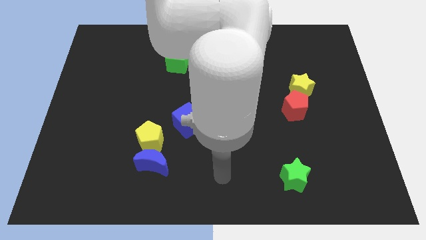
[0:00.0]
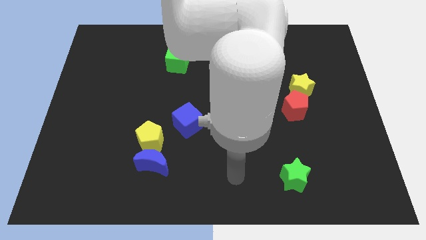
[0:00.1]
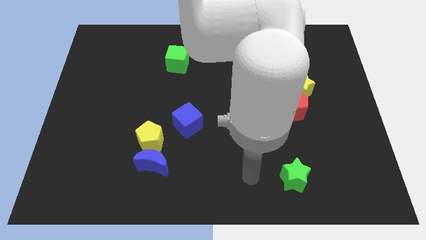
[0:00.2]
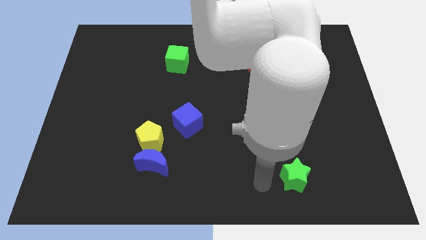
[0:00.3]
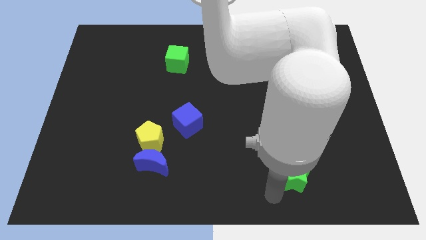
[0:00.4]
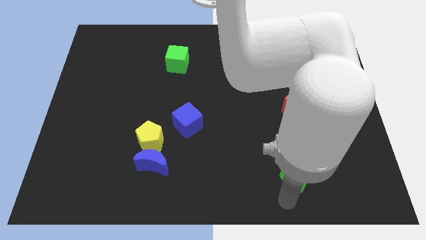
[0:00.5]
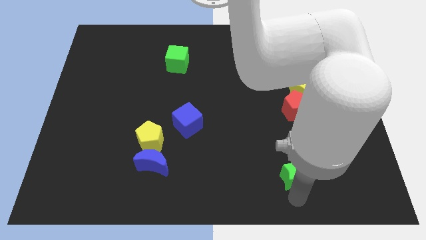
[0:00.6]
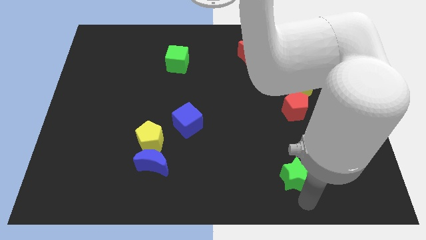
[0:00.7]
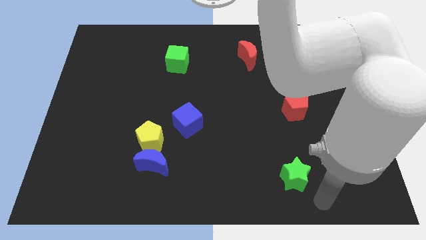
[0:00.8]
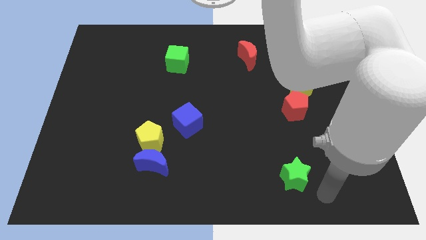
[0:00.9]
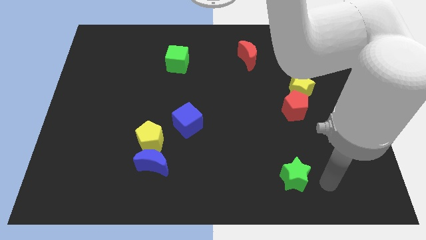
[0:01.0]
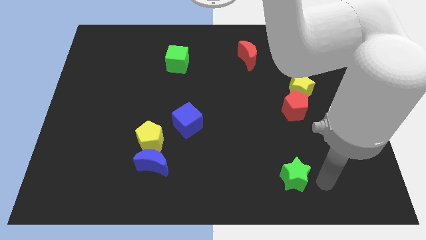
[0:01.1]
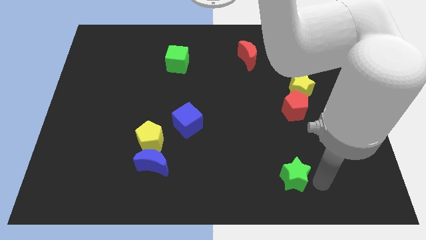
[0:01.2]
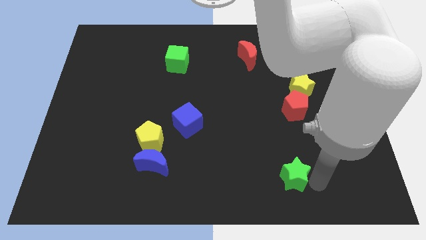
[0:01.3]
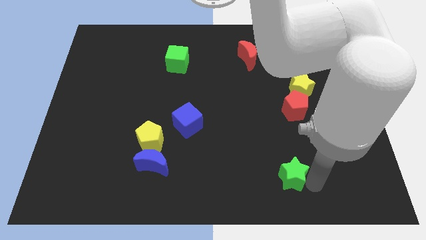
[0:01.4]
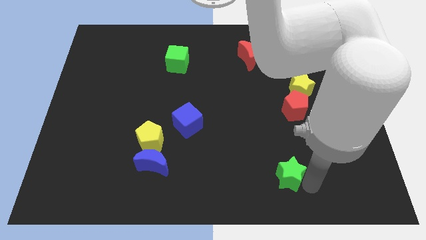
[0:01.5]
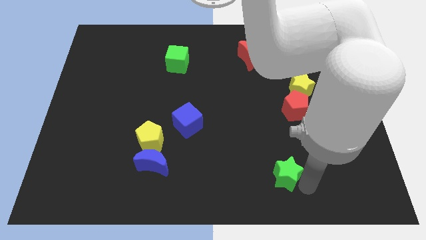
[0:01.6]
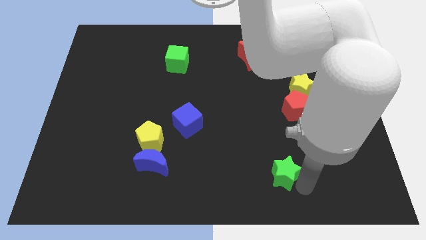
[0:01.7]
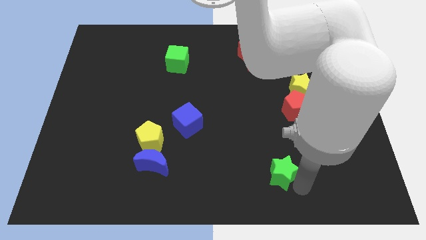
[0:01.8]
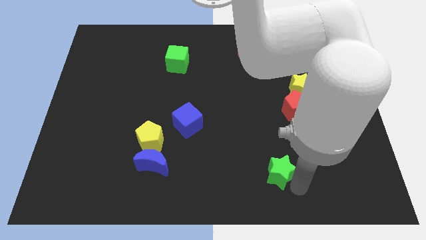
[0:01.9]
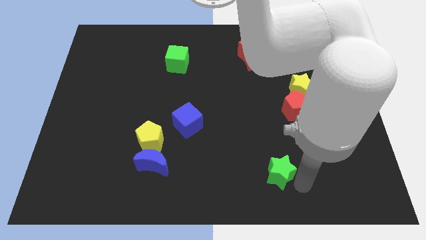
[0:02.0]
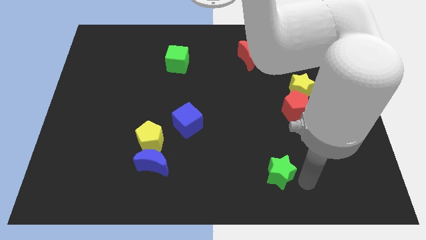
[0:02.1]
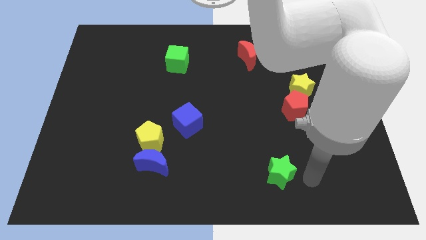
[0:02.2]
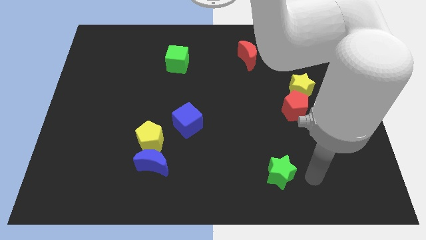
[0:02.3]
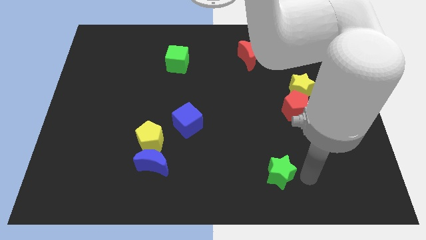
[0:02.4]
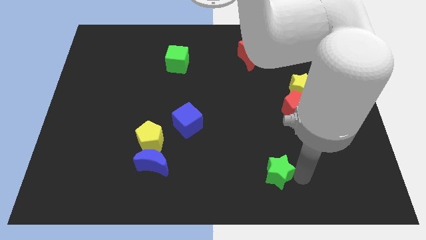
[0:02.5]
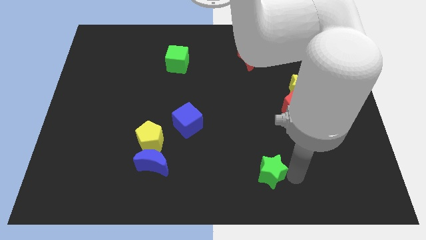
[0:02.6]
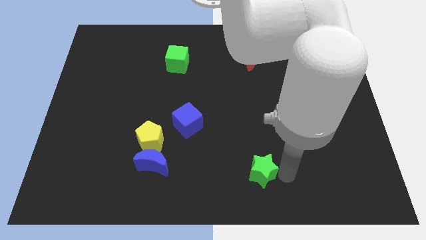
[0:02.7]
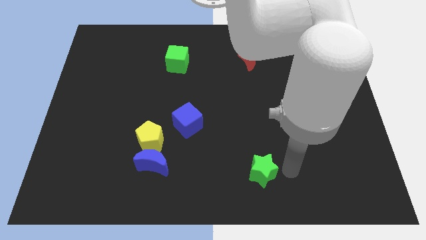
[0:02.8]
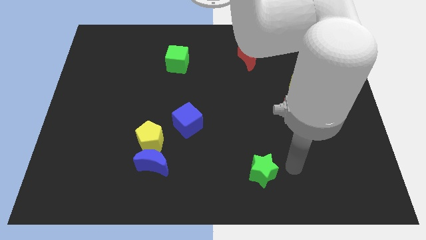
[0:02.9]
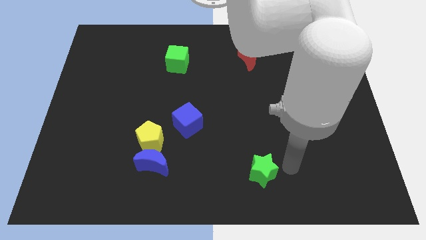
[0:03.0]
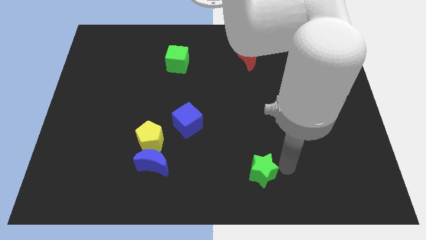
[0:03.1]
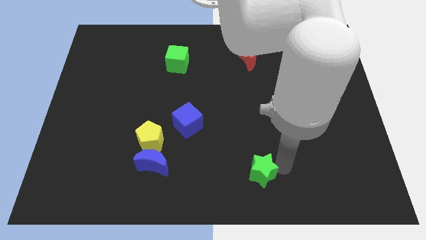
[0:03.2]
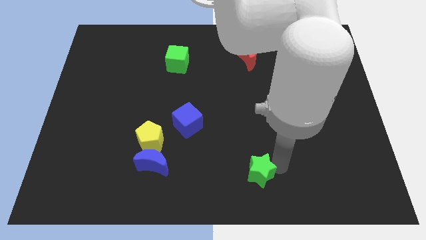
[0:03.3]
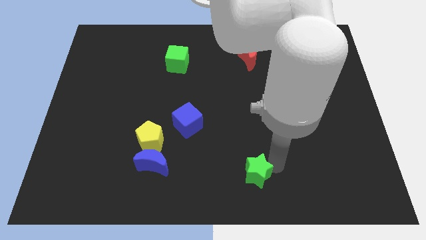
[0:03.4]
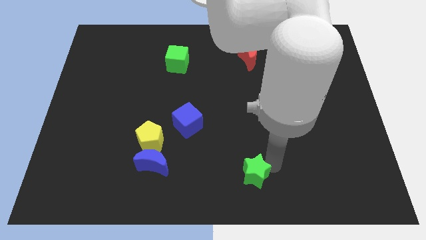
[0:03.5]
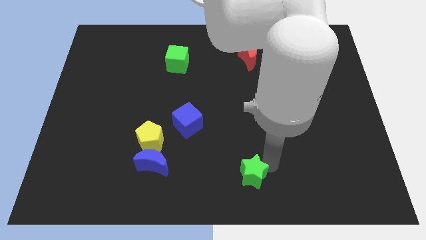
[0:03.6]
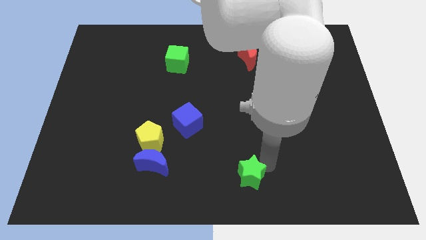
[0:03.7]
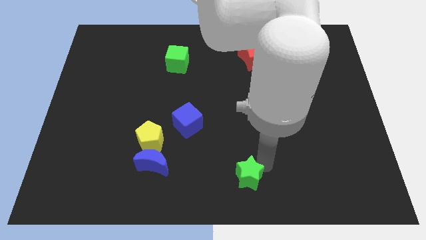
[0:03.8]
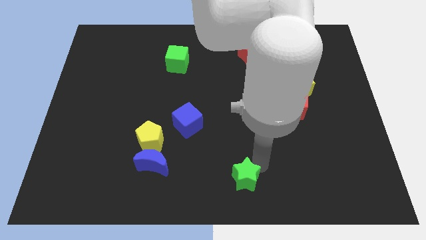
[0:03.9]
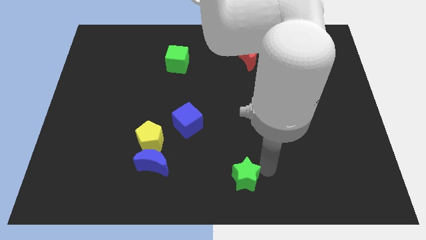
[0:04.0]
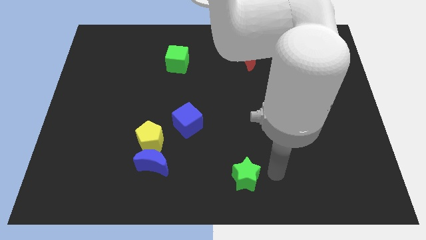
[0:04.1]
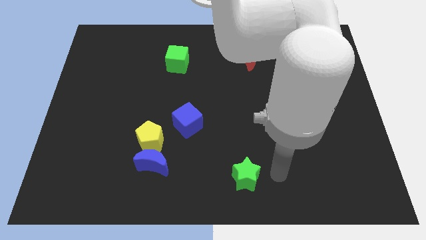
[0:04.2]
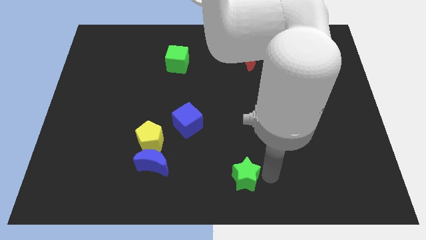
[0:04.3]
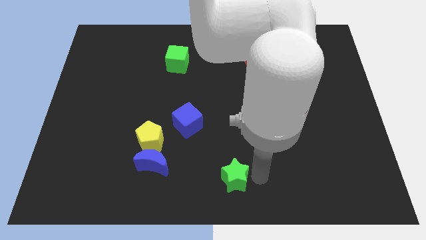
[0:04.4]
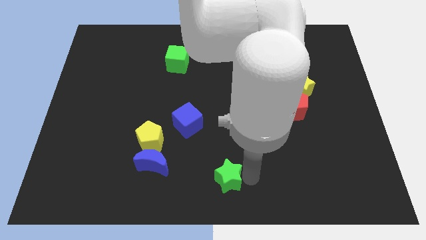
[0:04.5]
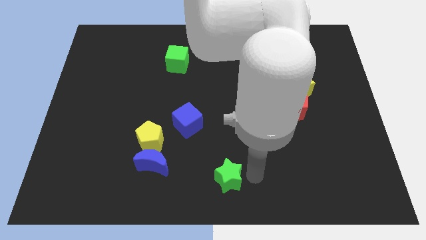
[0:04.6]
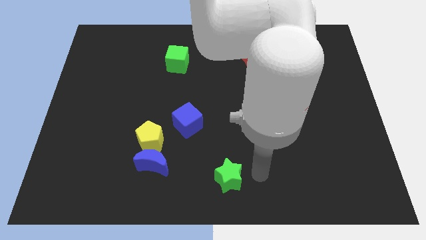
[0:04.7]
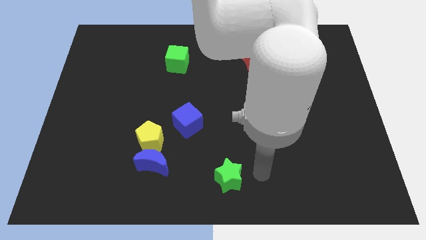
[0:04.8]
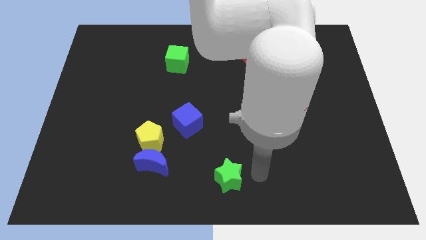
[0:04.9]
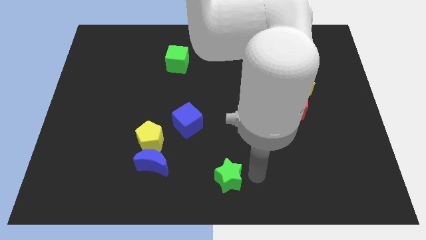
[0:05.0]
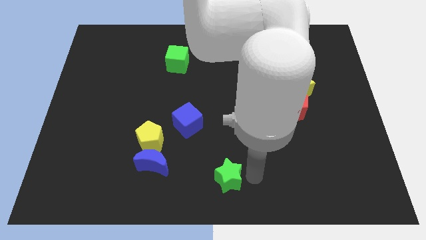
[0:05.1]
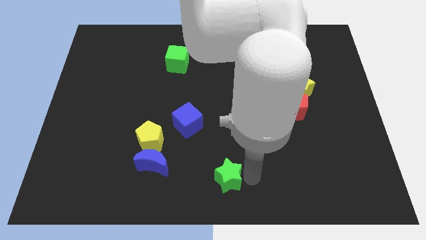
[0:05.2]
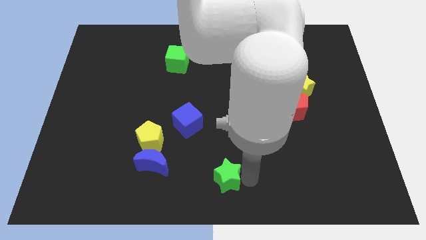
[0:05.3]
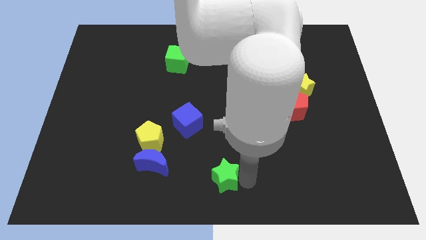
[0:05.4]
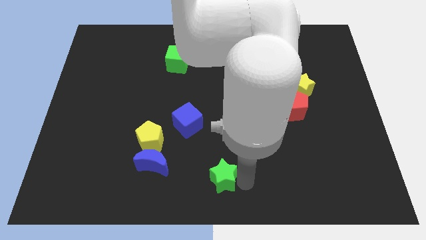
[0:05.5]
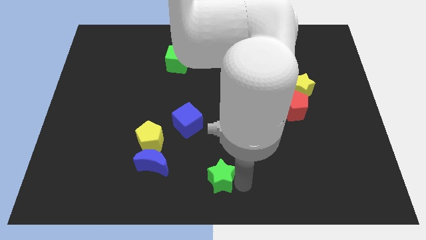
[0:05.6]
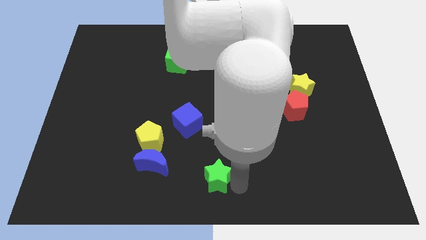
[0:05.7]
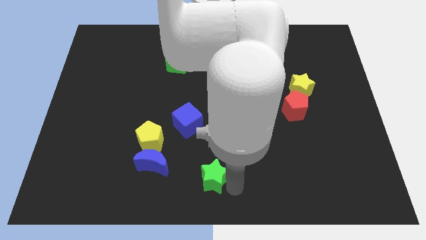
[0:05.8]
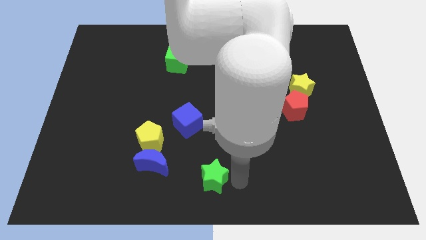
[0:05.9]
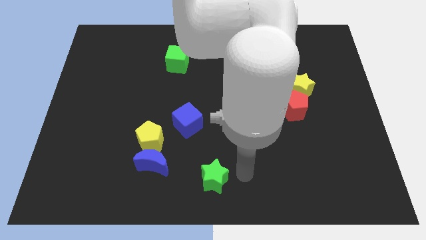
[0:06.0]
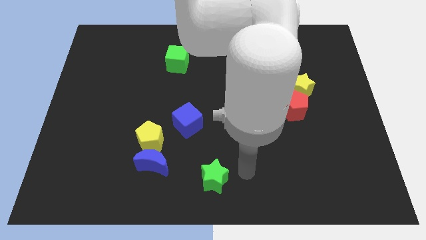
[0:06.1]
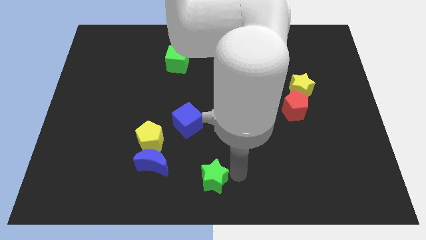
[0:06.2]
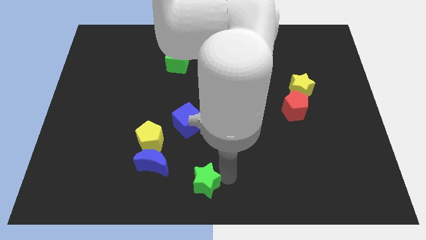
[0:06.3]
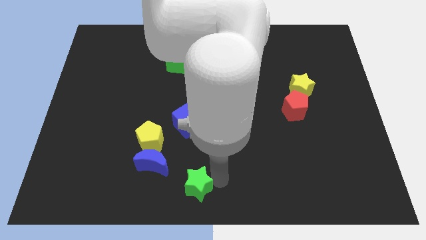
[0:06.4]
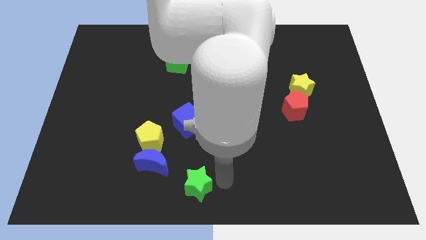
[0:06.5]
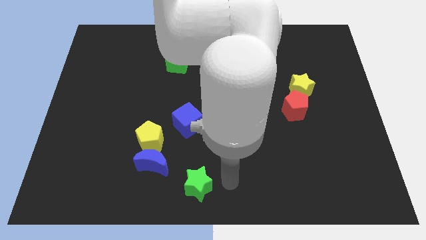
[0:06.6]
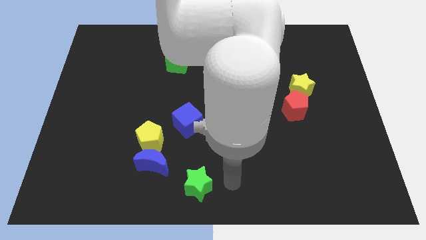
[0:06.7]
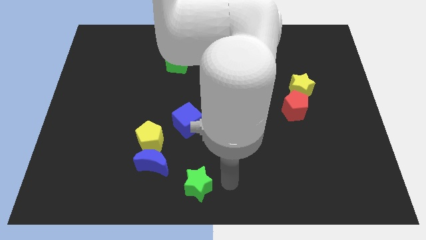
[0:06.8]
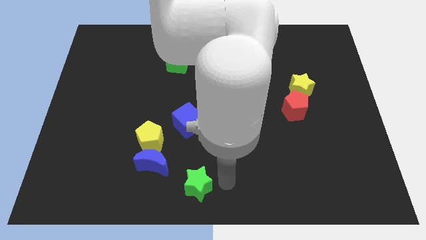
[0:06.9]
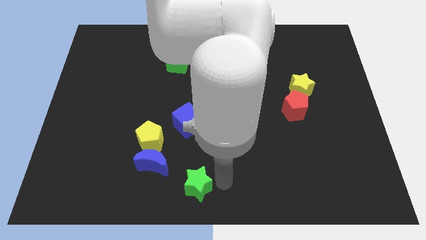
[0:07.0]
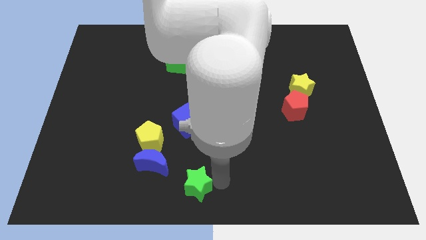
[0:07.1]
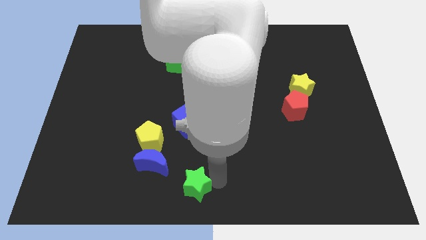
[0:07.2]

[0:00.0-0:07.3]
push the green star left

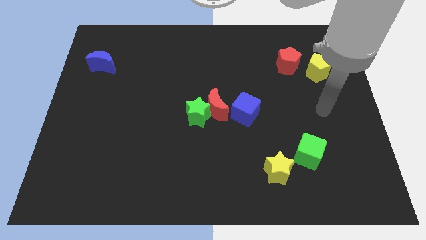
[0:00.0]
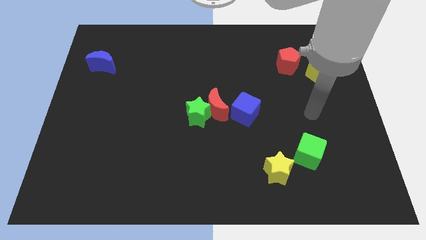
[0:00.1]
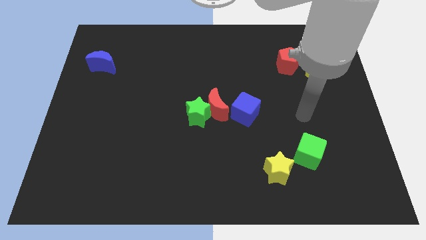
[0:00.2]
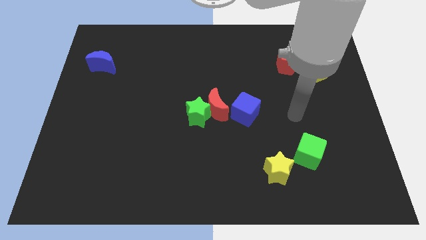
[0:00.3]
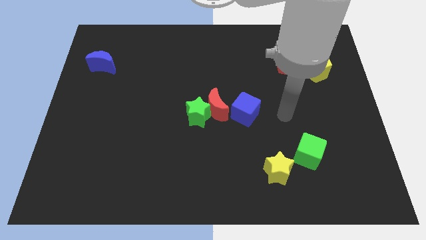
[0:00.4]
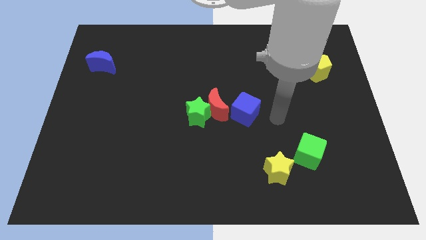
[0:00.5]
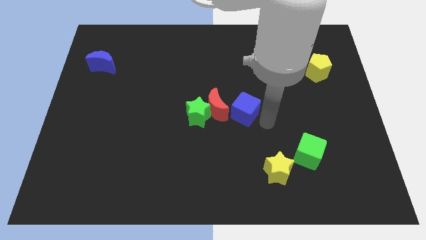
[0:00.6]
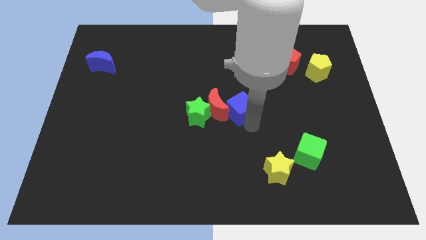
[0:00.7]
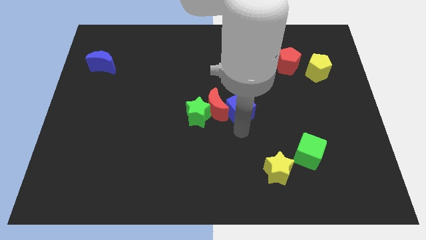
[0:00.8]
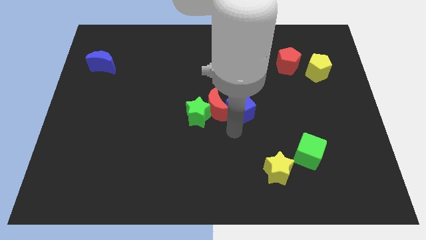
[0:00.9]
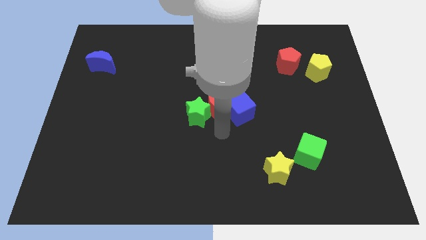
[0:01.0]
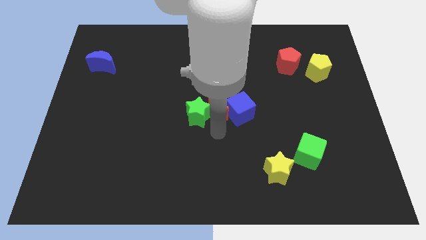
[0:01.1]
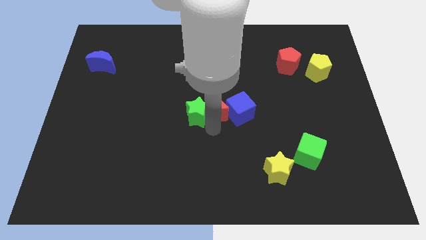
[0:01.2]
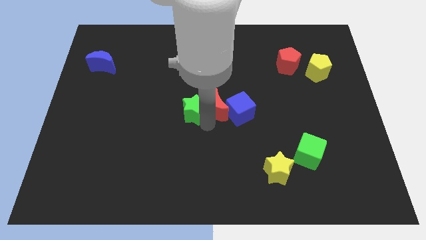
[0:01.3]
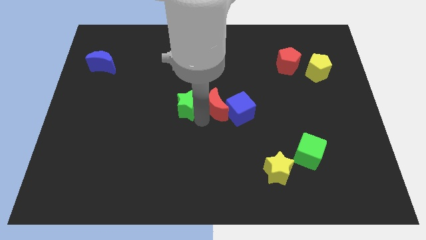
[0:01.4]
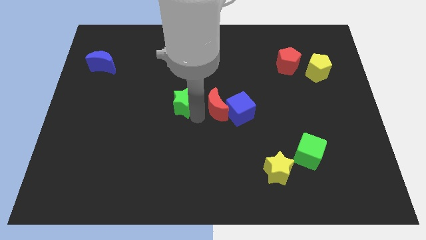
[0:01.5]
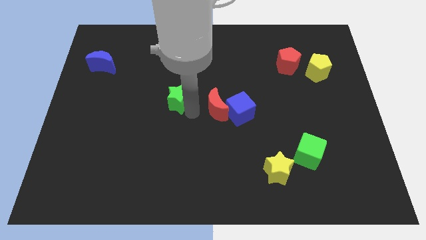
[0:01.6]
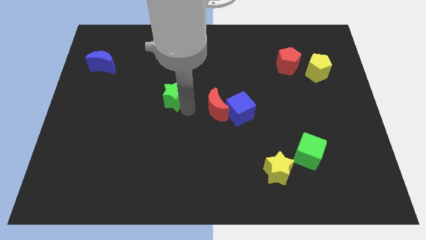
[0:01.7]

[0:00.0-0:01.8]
push the green star a bit upwards and then left
